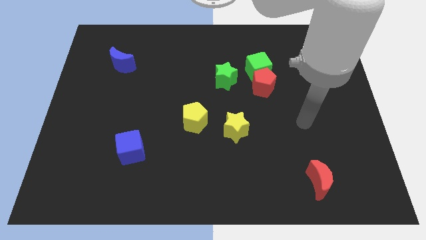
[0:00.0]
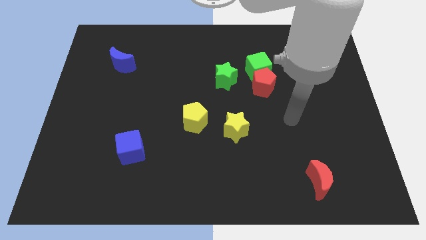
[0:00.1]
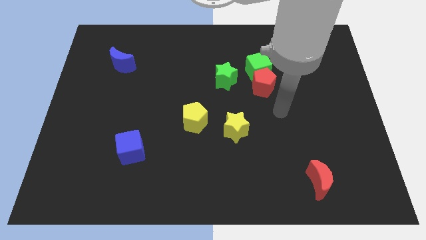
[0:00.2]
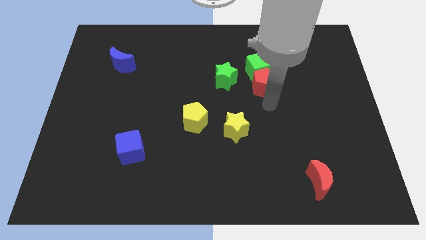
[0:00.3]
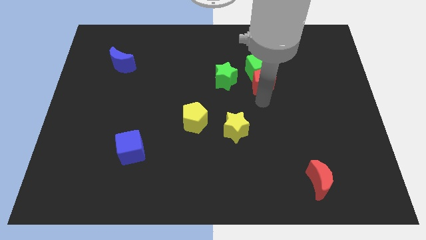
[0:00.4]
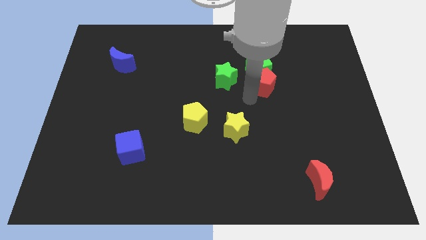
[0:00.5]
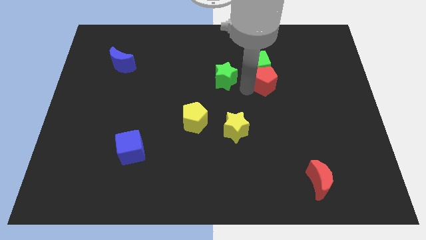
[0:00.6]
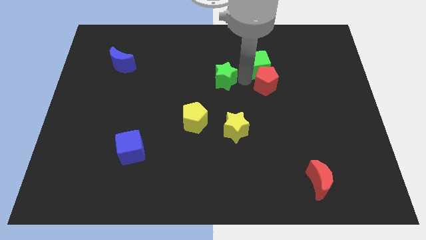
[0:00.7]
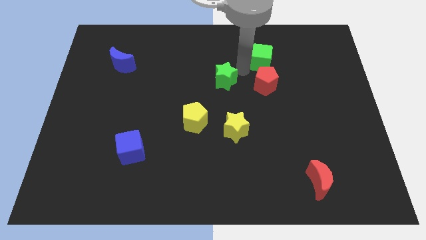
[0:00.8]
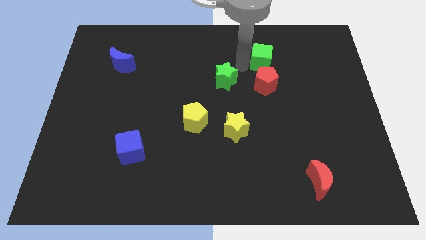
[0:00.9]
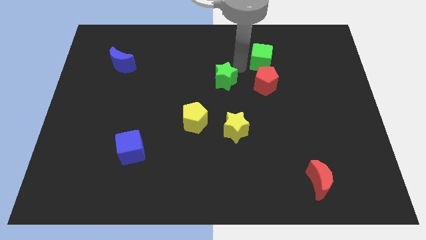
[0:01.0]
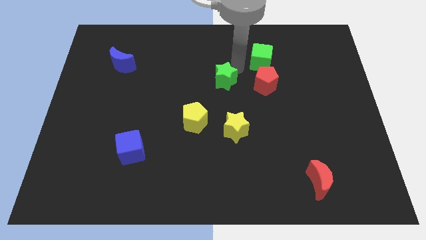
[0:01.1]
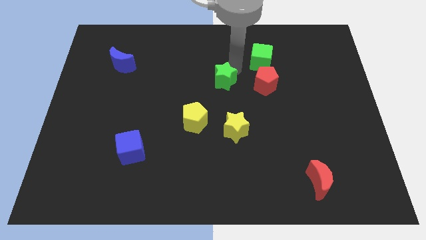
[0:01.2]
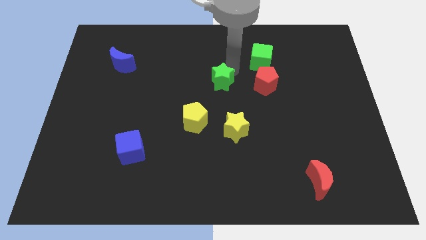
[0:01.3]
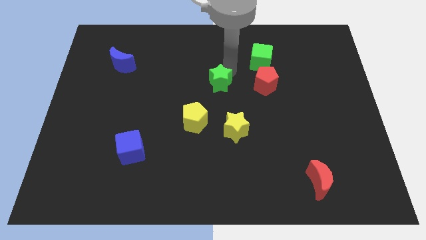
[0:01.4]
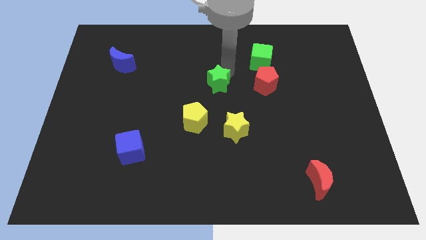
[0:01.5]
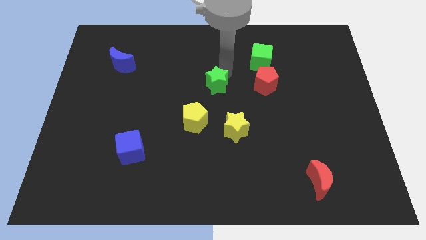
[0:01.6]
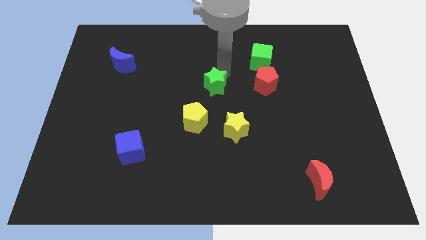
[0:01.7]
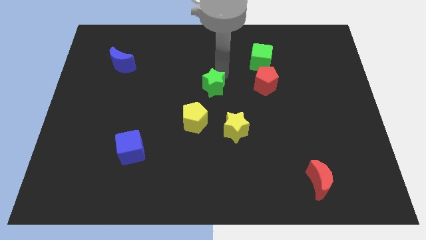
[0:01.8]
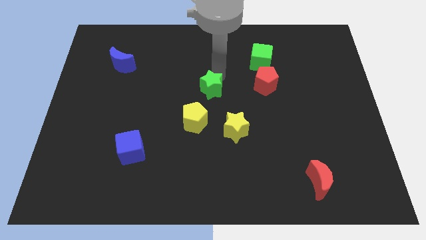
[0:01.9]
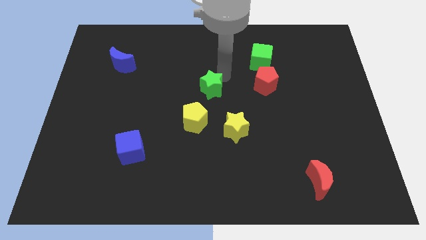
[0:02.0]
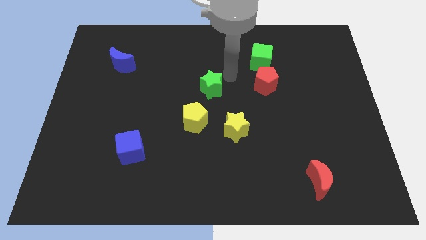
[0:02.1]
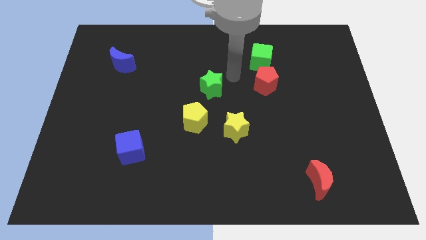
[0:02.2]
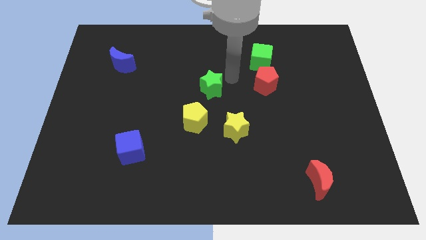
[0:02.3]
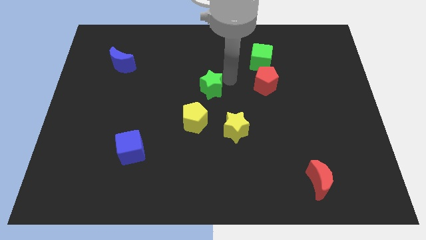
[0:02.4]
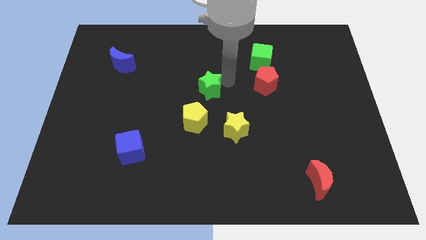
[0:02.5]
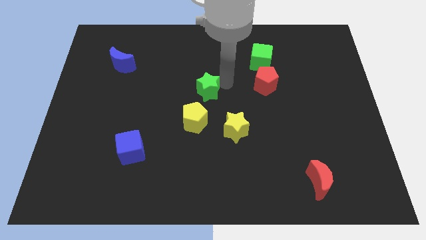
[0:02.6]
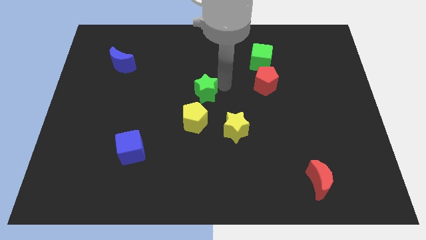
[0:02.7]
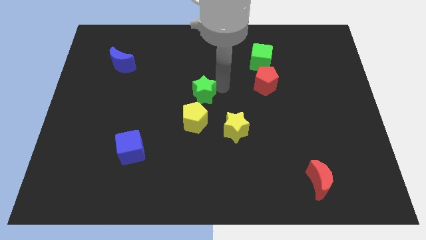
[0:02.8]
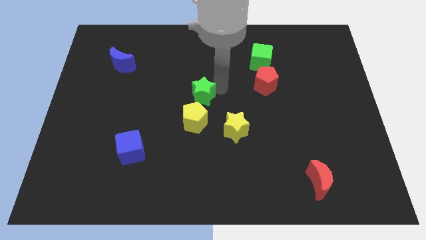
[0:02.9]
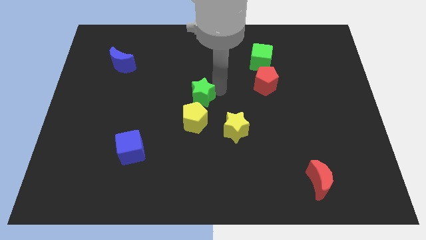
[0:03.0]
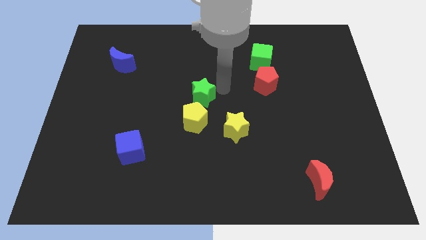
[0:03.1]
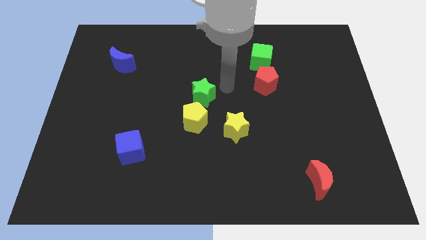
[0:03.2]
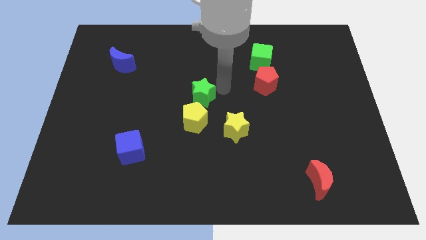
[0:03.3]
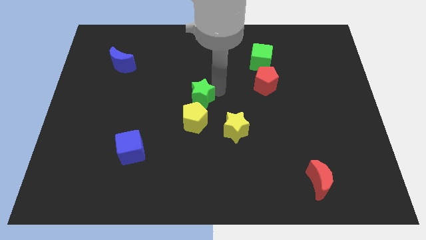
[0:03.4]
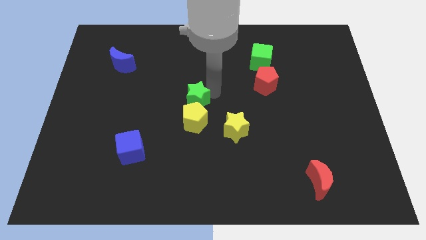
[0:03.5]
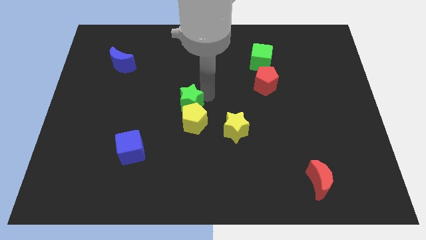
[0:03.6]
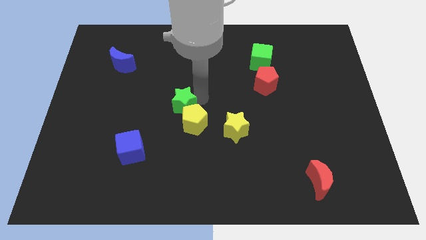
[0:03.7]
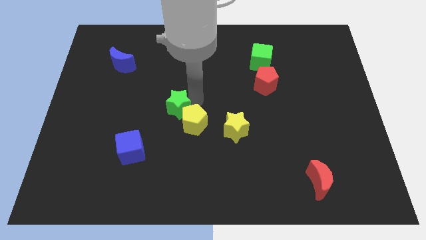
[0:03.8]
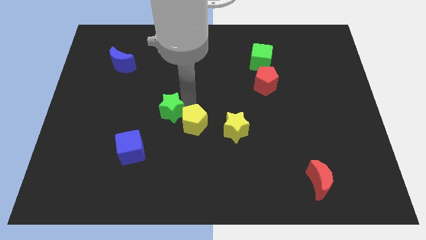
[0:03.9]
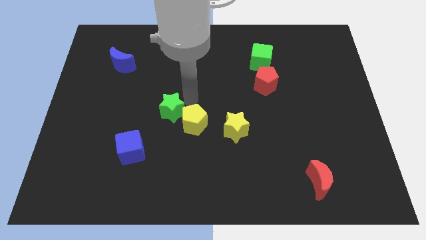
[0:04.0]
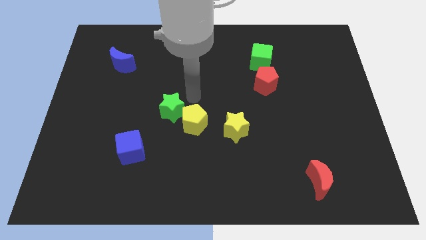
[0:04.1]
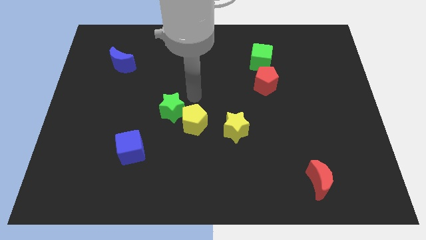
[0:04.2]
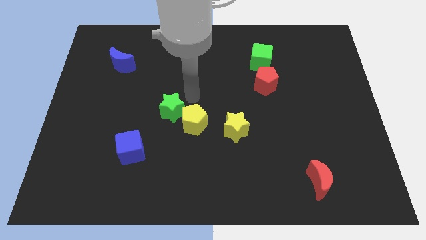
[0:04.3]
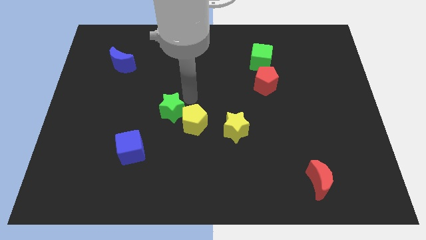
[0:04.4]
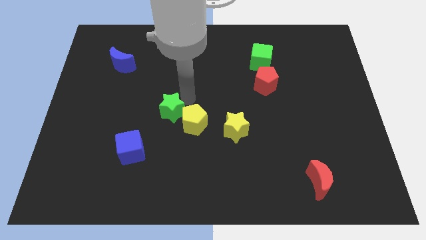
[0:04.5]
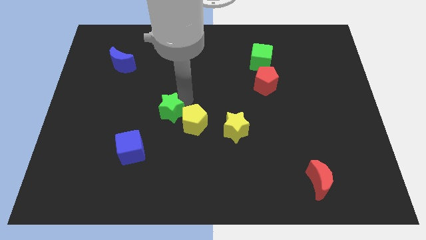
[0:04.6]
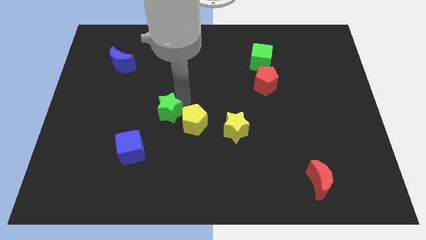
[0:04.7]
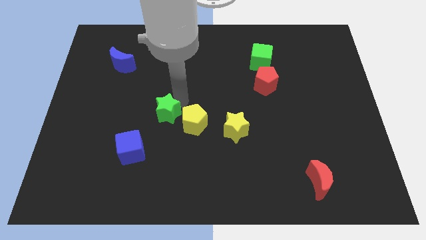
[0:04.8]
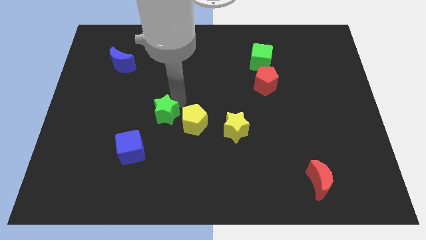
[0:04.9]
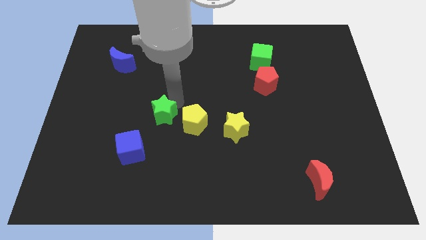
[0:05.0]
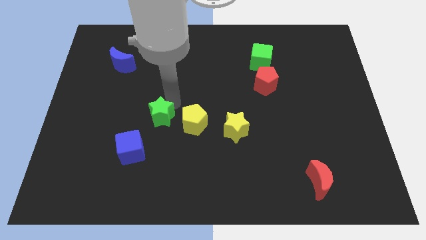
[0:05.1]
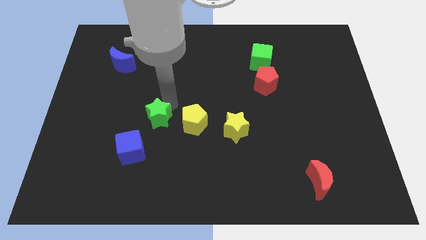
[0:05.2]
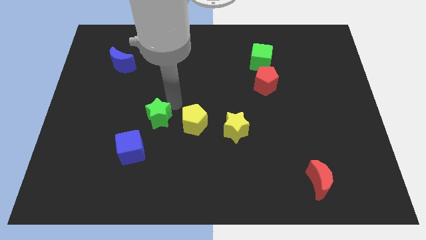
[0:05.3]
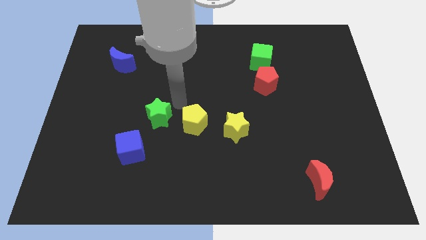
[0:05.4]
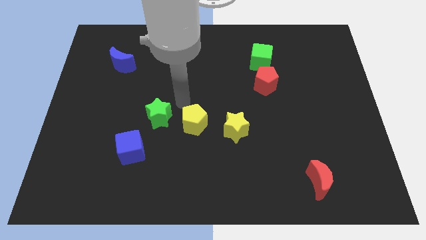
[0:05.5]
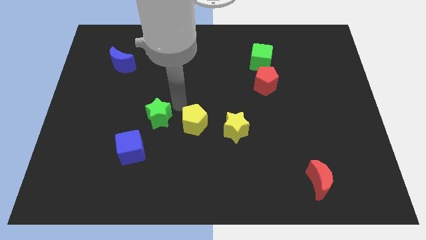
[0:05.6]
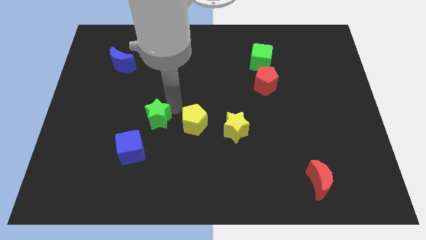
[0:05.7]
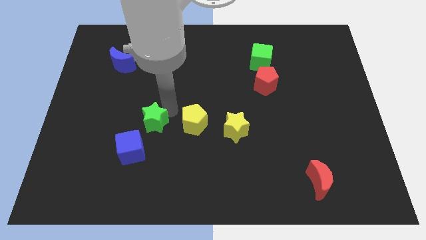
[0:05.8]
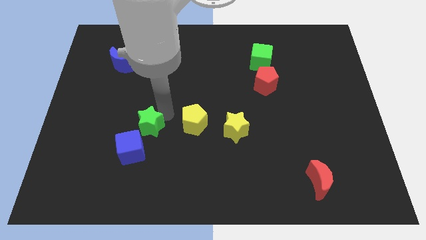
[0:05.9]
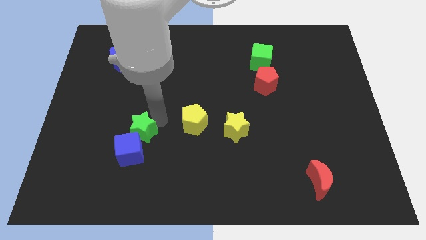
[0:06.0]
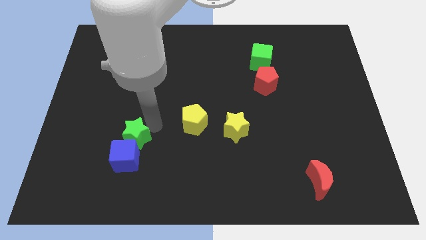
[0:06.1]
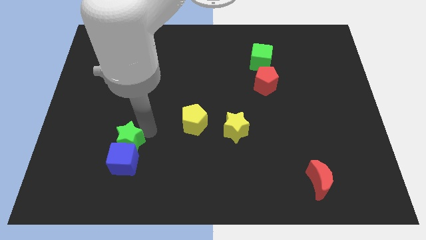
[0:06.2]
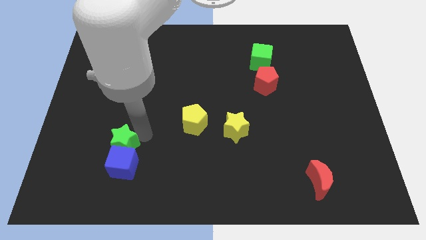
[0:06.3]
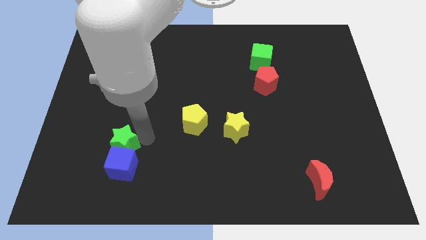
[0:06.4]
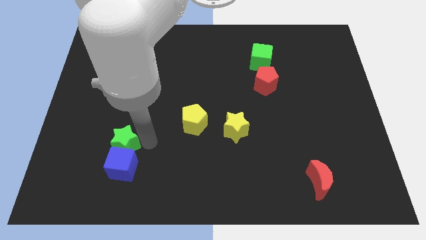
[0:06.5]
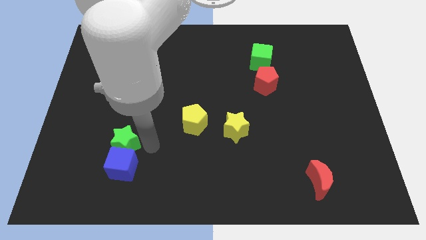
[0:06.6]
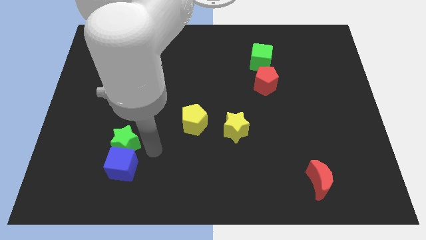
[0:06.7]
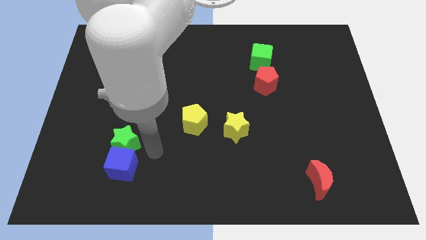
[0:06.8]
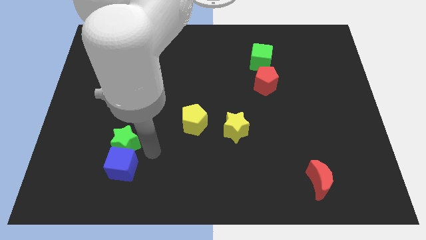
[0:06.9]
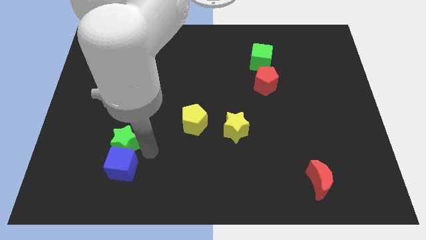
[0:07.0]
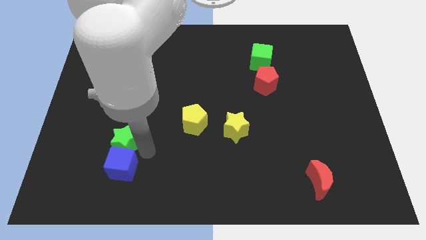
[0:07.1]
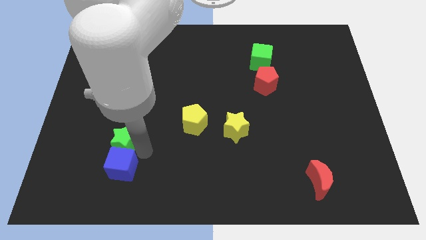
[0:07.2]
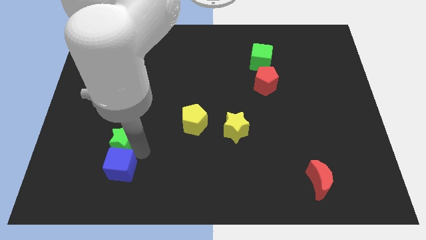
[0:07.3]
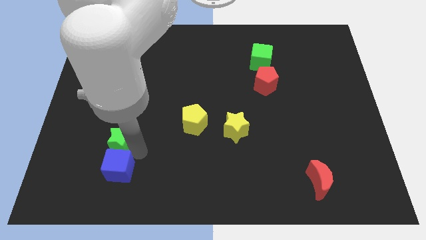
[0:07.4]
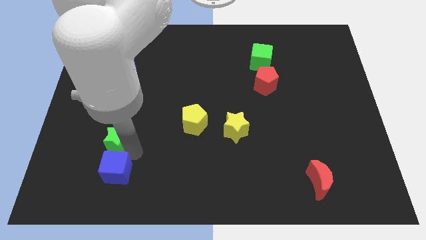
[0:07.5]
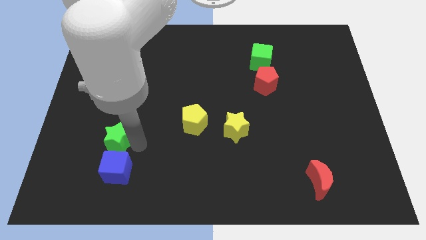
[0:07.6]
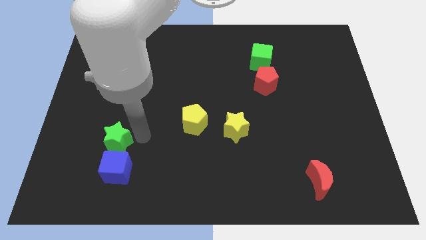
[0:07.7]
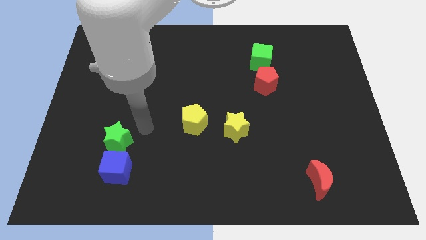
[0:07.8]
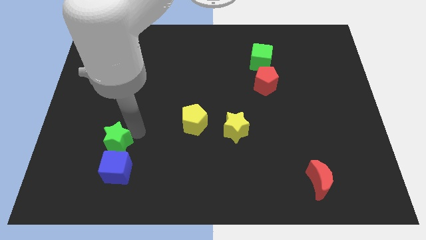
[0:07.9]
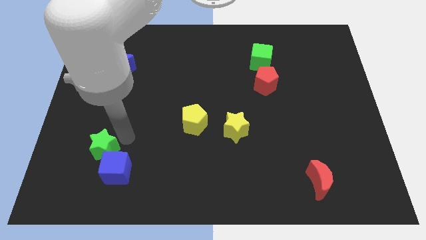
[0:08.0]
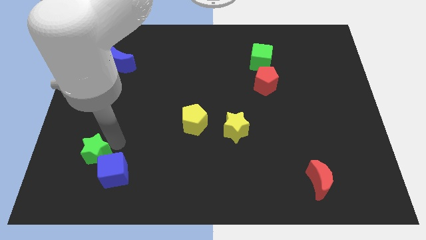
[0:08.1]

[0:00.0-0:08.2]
slide the green star to the left side of the blue cube
